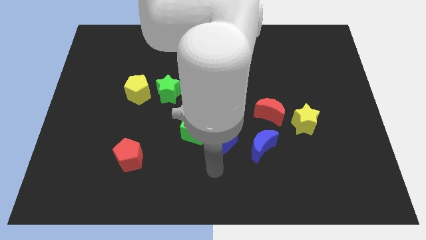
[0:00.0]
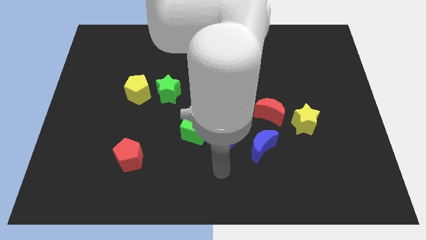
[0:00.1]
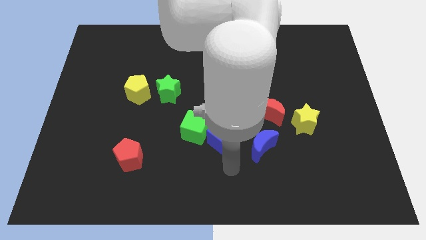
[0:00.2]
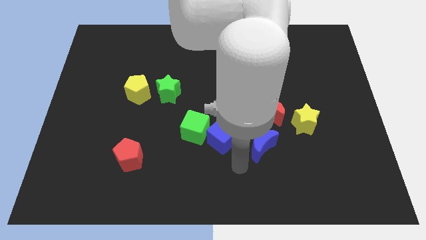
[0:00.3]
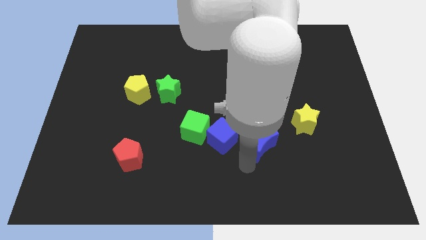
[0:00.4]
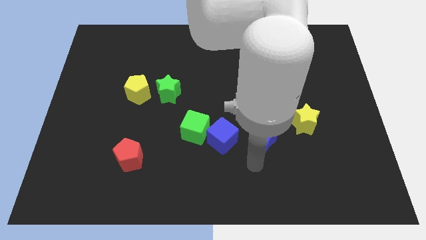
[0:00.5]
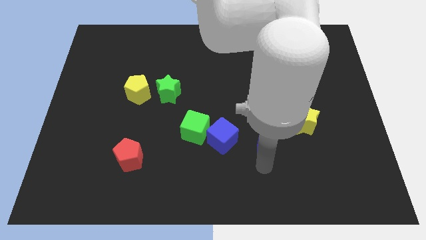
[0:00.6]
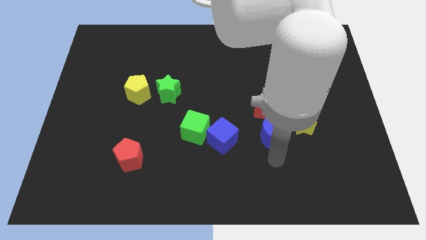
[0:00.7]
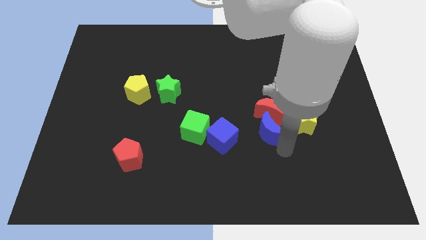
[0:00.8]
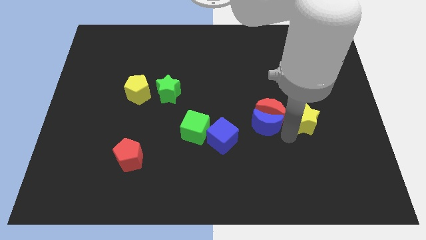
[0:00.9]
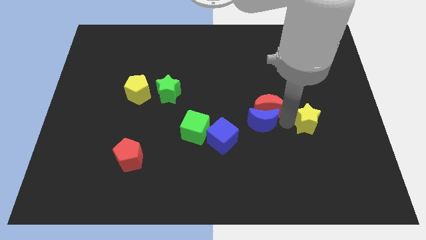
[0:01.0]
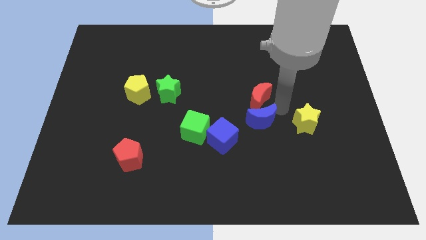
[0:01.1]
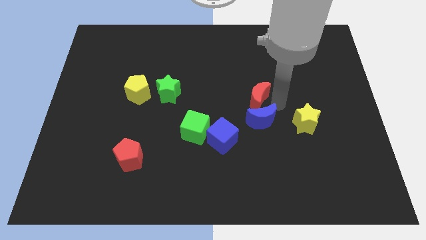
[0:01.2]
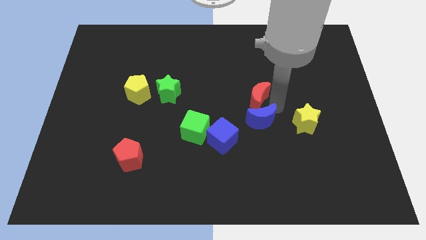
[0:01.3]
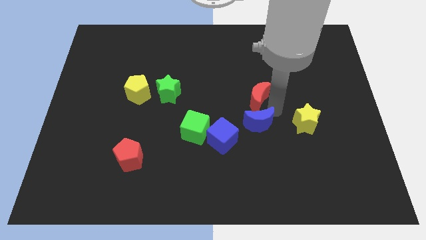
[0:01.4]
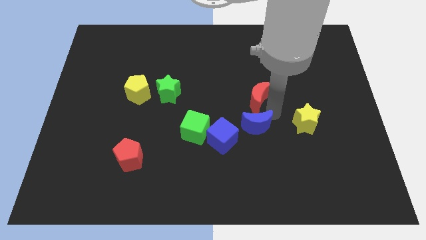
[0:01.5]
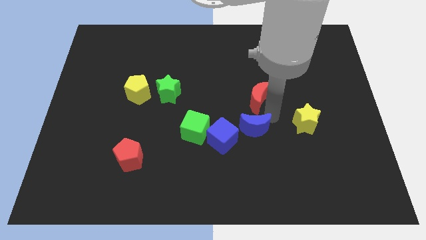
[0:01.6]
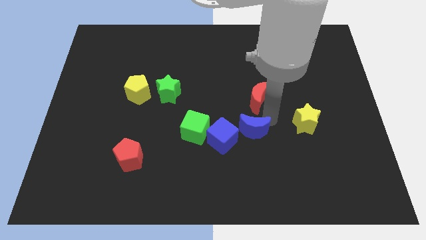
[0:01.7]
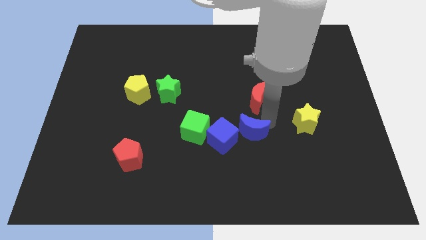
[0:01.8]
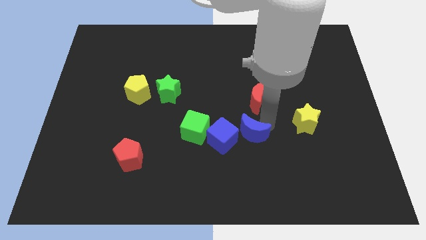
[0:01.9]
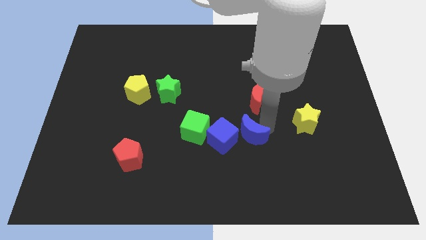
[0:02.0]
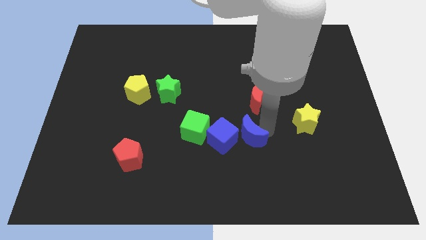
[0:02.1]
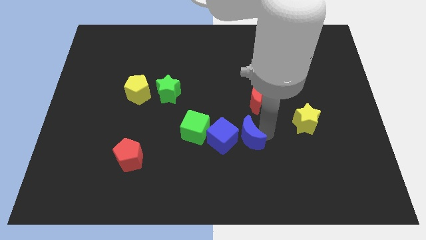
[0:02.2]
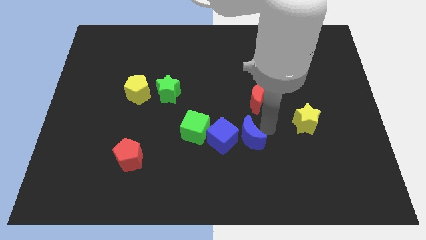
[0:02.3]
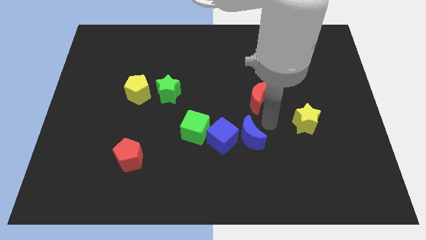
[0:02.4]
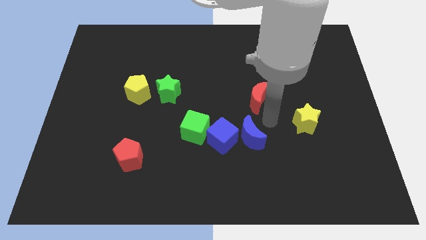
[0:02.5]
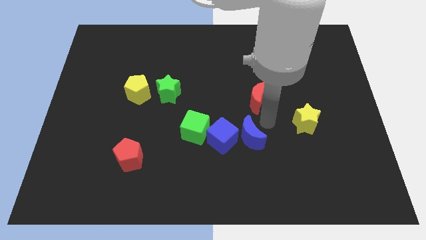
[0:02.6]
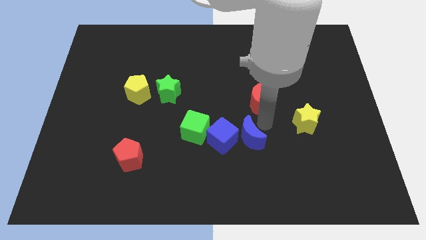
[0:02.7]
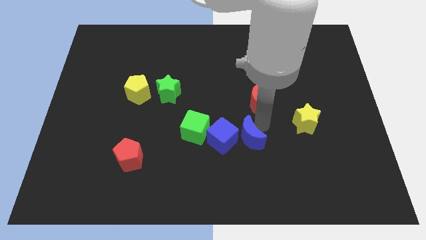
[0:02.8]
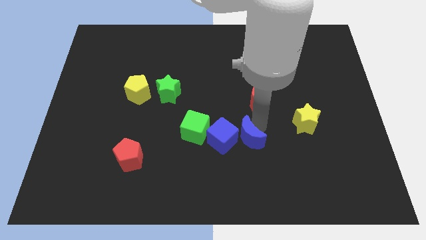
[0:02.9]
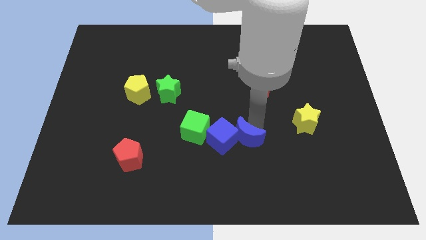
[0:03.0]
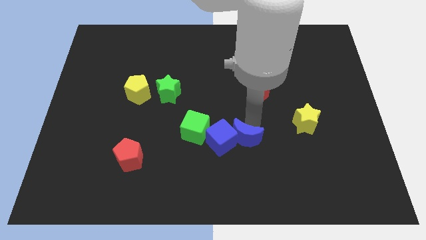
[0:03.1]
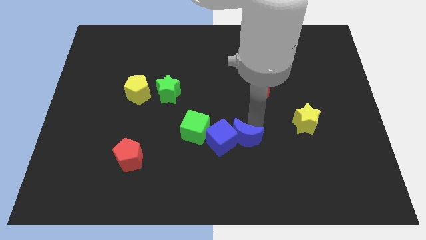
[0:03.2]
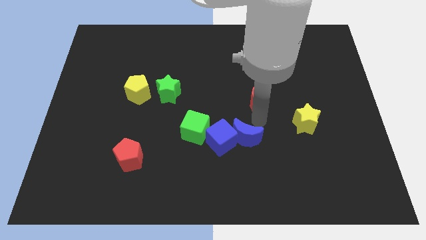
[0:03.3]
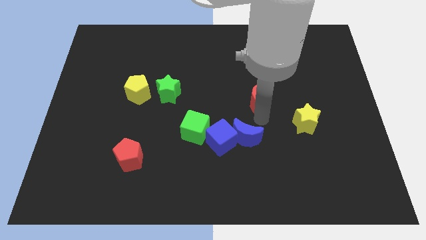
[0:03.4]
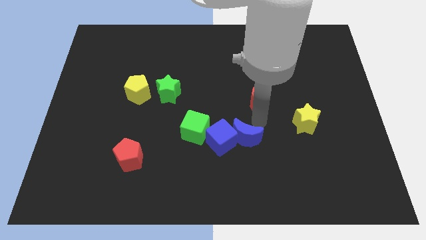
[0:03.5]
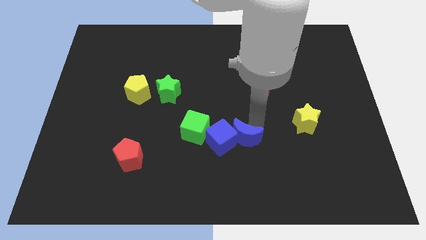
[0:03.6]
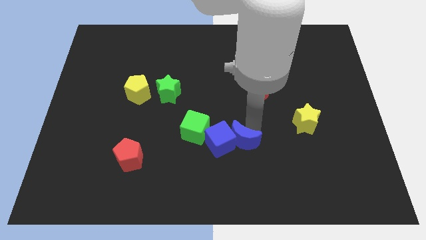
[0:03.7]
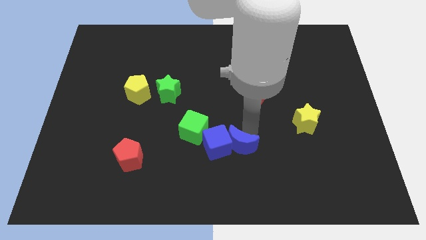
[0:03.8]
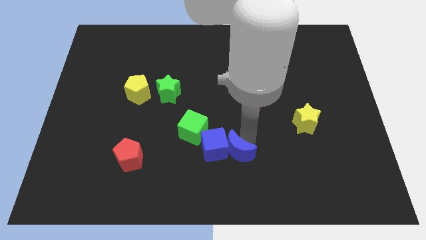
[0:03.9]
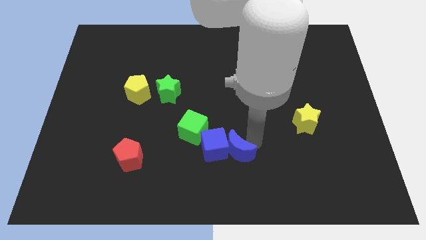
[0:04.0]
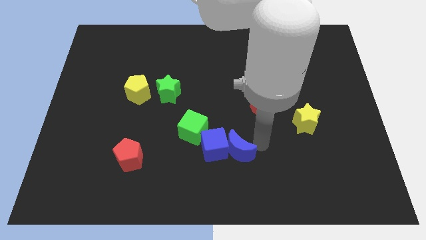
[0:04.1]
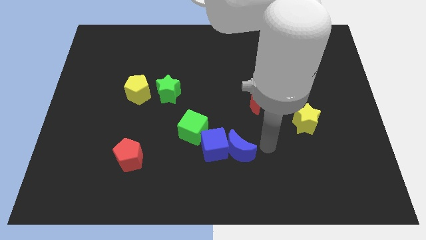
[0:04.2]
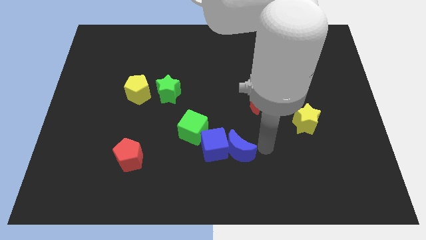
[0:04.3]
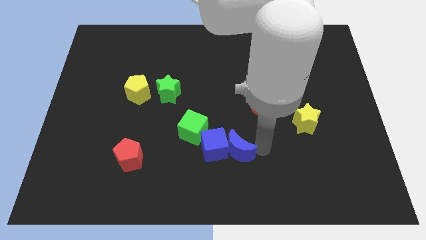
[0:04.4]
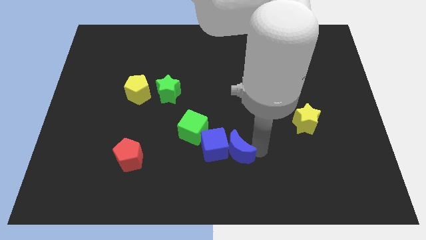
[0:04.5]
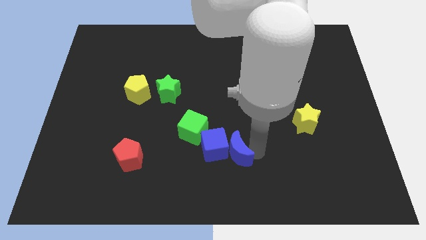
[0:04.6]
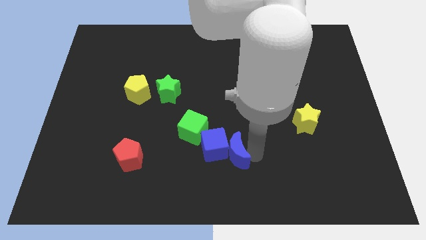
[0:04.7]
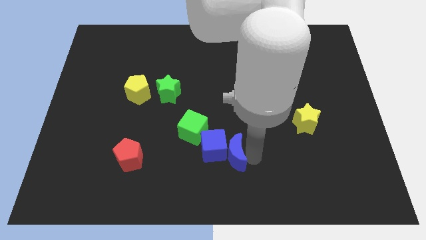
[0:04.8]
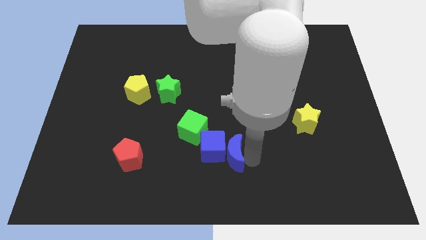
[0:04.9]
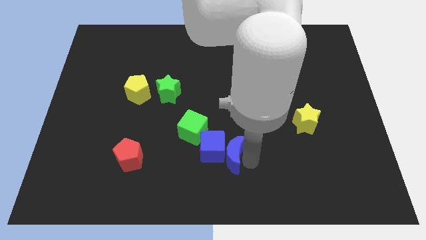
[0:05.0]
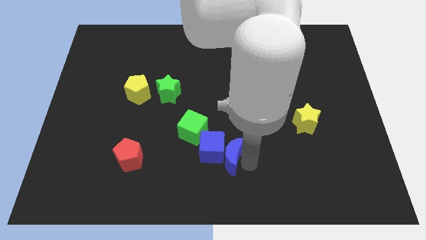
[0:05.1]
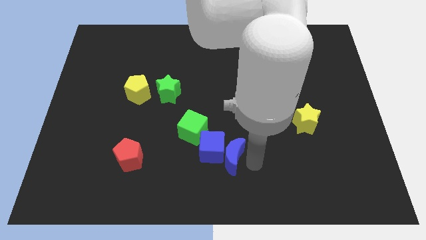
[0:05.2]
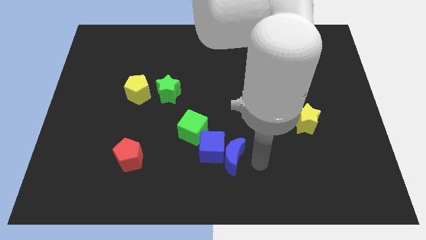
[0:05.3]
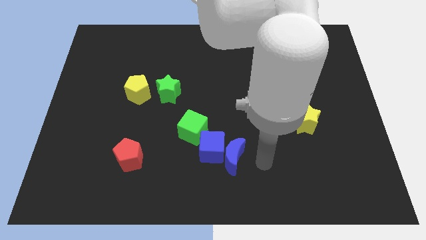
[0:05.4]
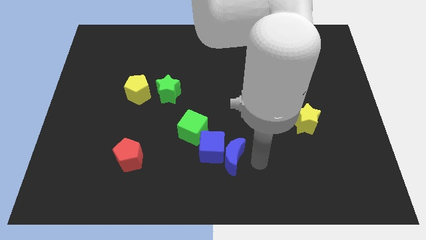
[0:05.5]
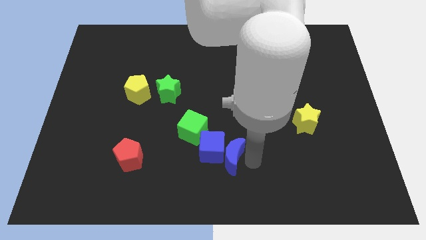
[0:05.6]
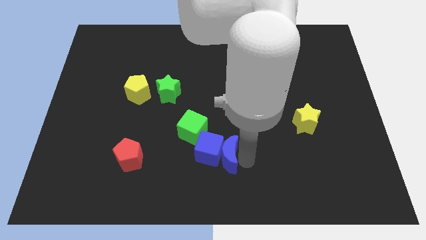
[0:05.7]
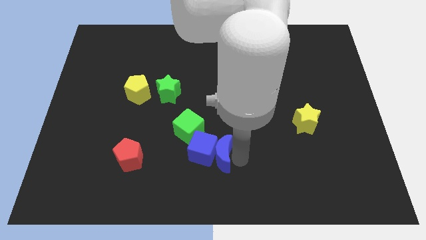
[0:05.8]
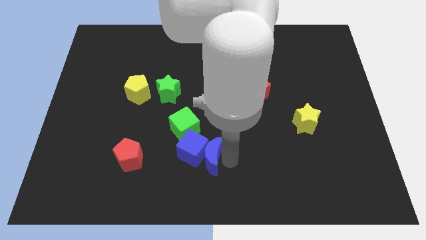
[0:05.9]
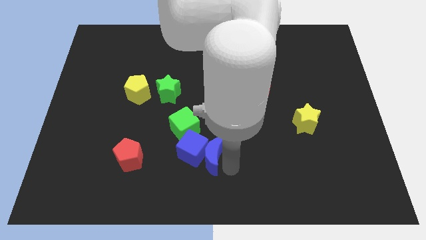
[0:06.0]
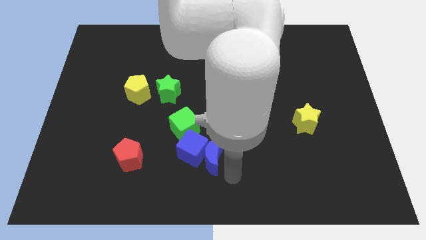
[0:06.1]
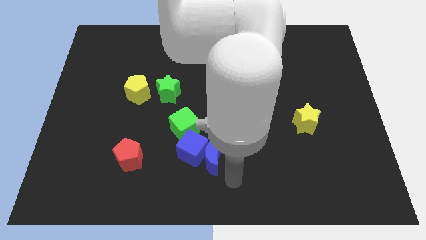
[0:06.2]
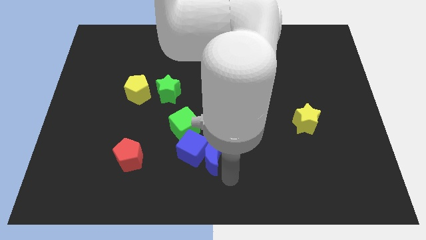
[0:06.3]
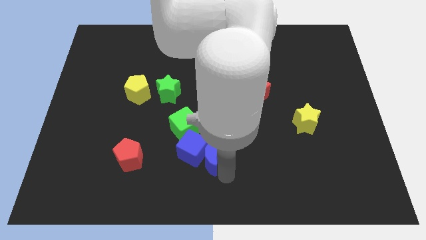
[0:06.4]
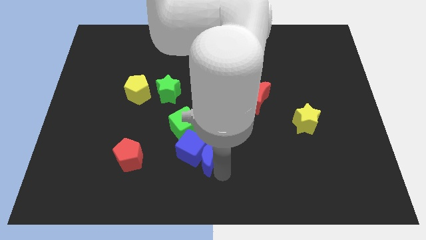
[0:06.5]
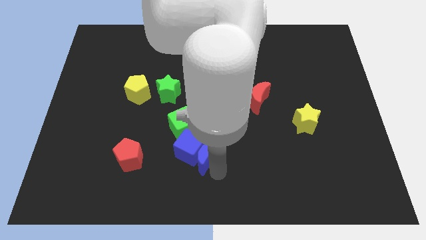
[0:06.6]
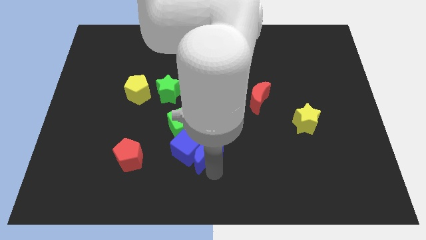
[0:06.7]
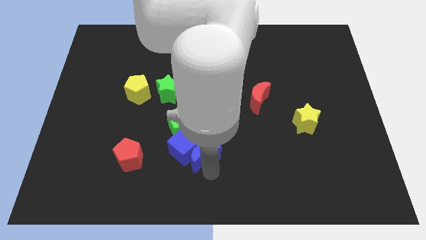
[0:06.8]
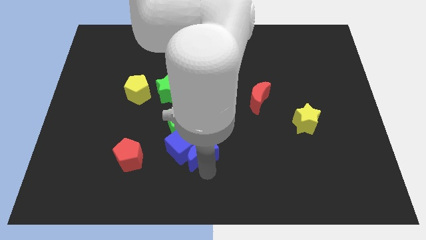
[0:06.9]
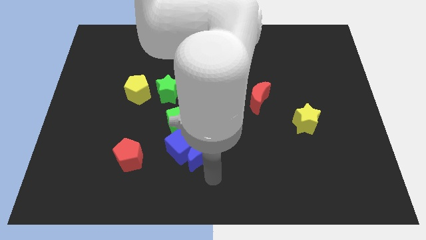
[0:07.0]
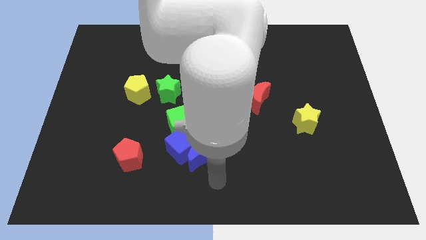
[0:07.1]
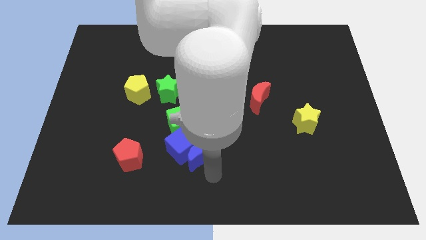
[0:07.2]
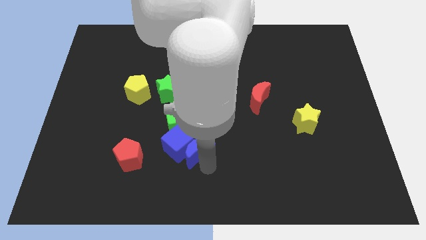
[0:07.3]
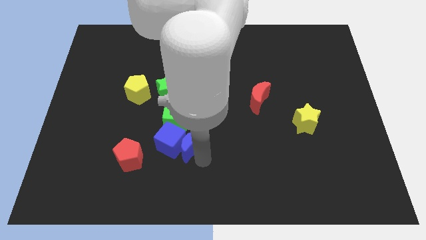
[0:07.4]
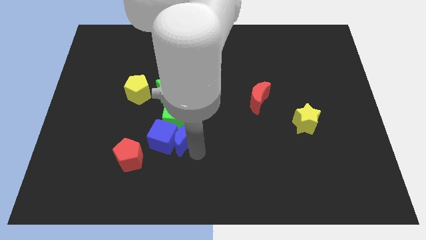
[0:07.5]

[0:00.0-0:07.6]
slide the blue moon close to the green cube
